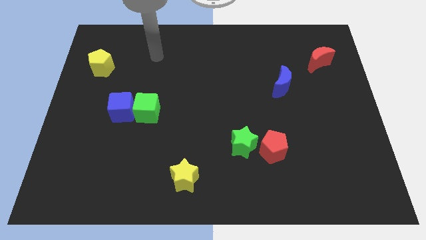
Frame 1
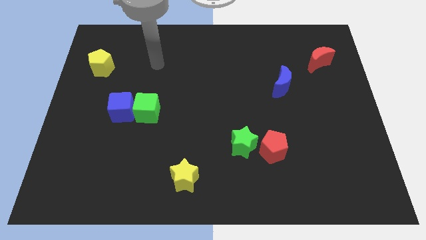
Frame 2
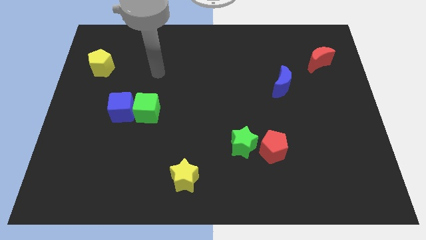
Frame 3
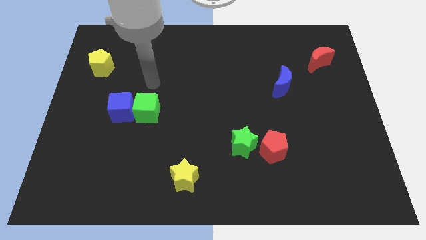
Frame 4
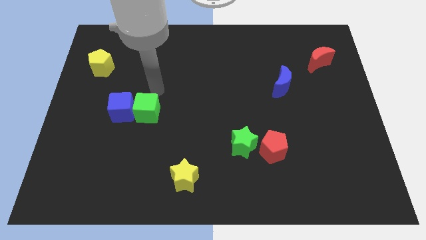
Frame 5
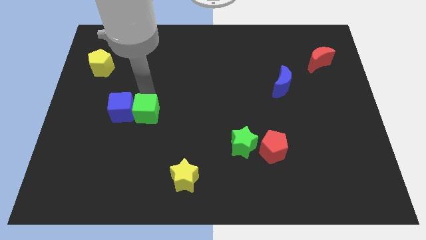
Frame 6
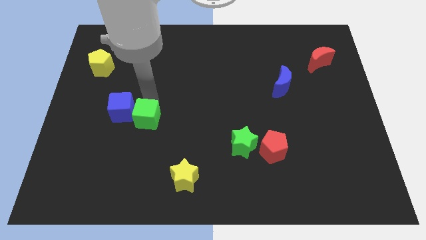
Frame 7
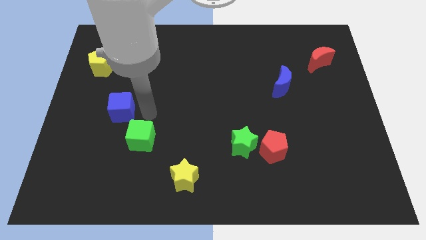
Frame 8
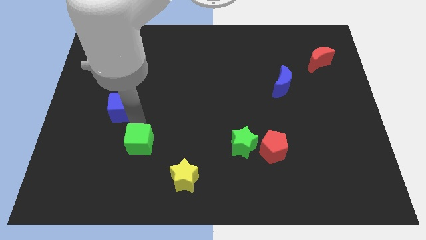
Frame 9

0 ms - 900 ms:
move the blue cube away from the green cube

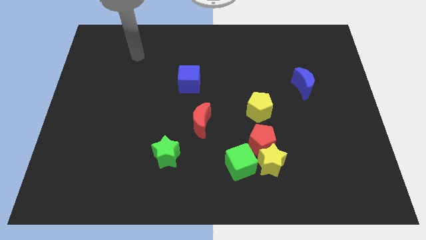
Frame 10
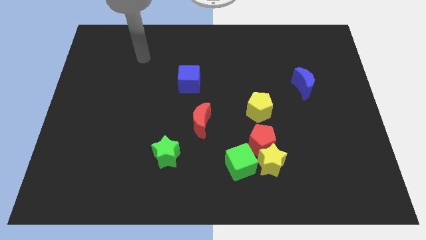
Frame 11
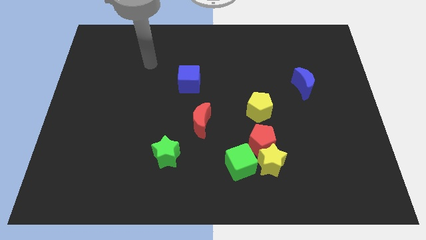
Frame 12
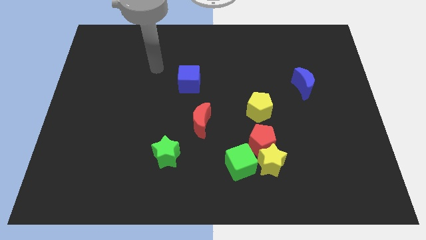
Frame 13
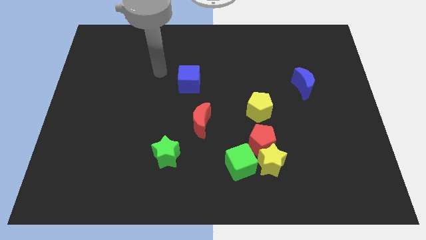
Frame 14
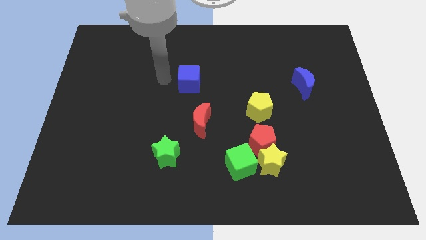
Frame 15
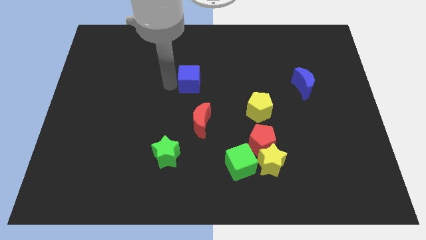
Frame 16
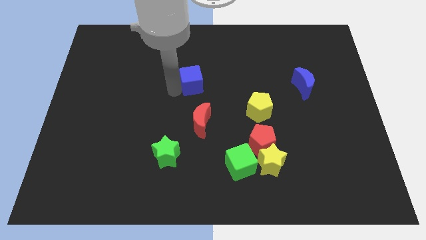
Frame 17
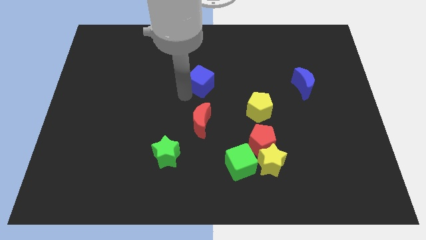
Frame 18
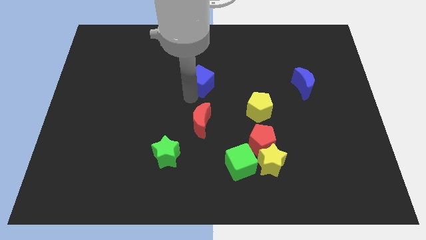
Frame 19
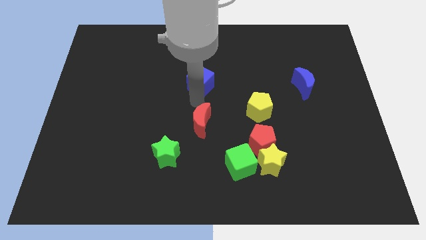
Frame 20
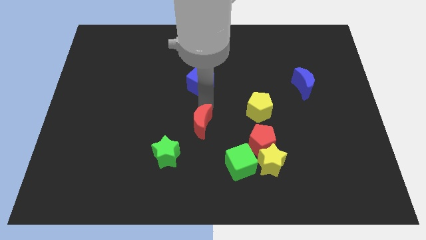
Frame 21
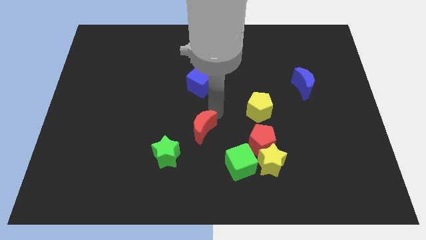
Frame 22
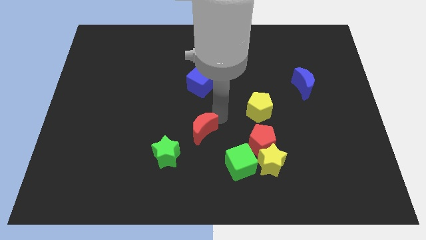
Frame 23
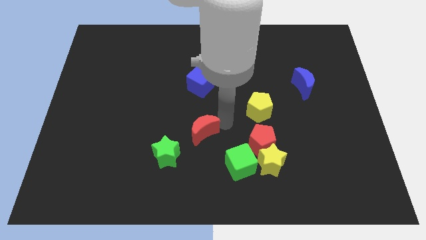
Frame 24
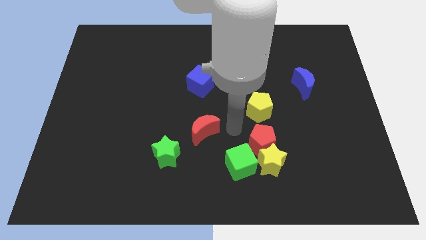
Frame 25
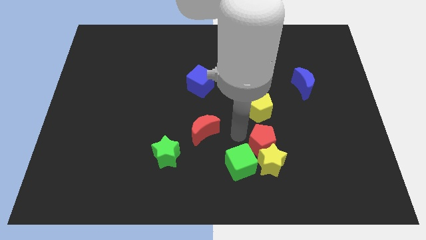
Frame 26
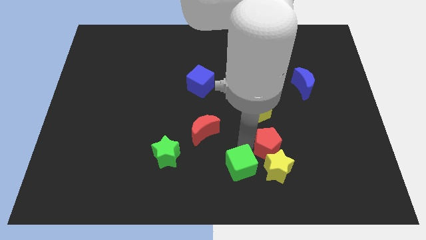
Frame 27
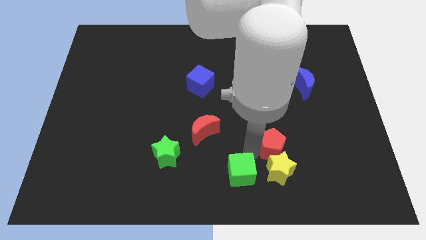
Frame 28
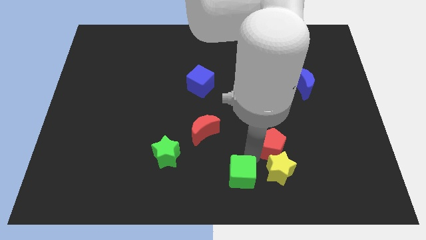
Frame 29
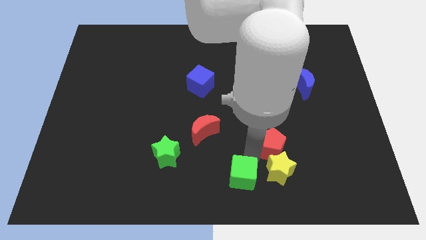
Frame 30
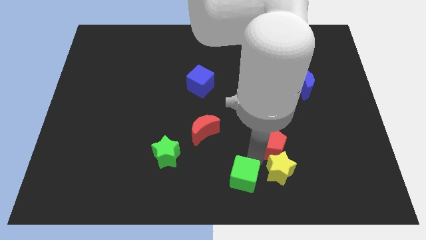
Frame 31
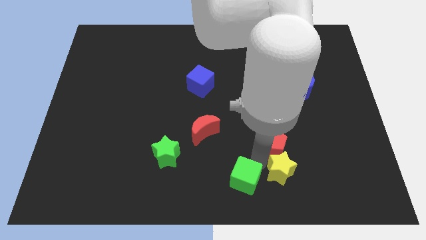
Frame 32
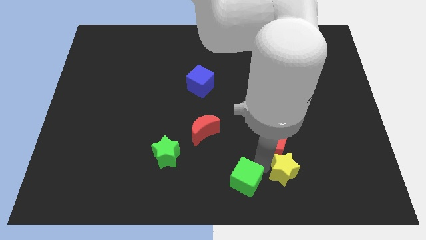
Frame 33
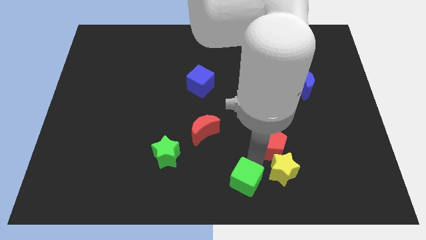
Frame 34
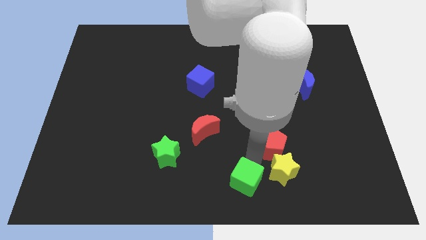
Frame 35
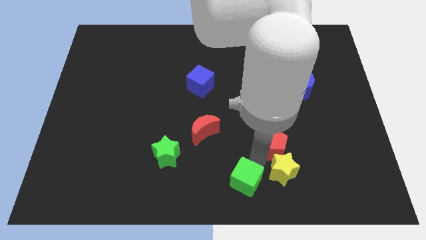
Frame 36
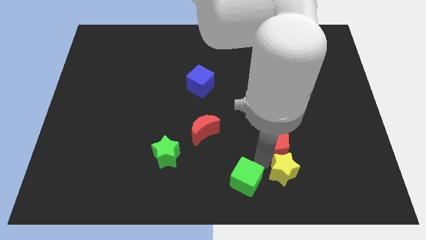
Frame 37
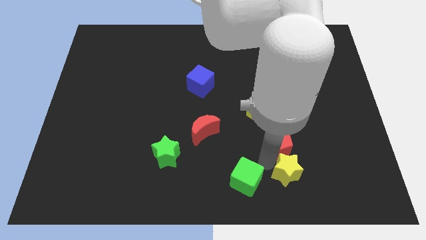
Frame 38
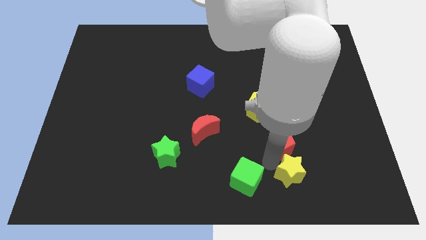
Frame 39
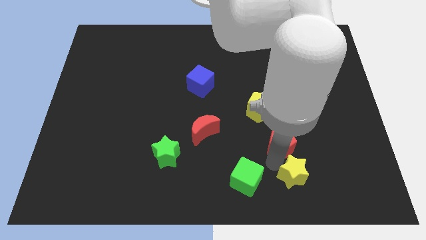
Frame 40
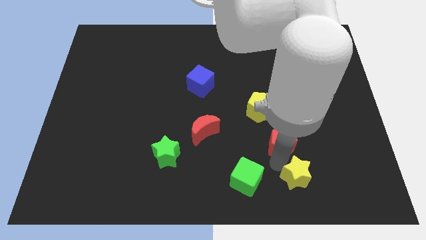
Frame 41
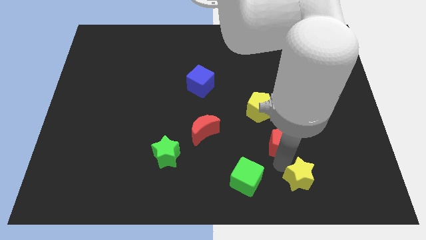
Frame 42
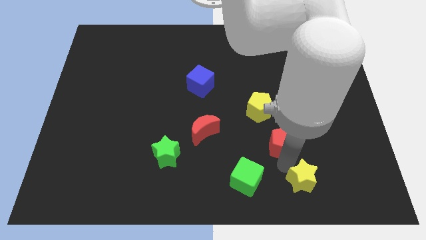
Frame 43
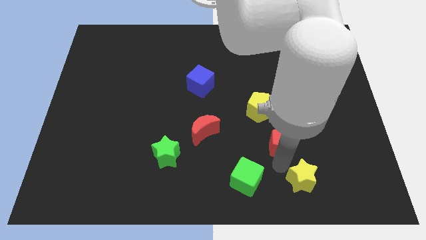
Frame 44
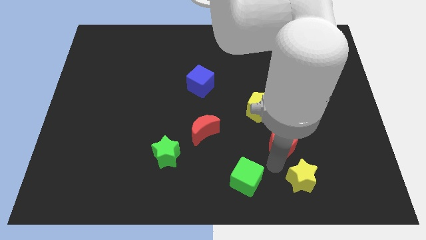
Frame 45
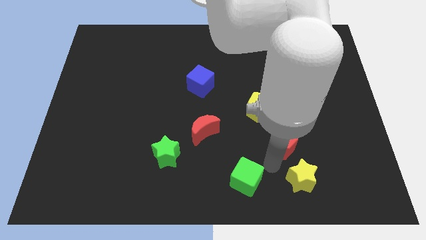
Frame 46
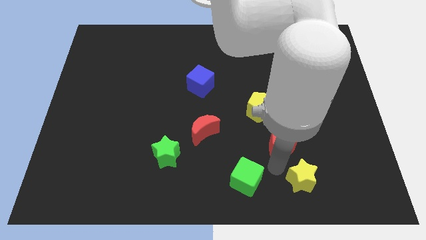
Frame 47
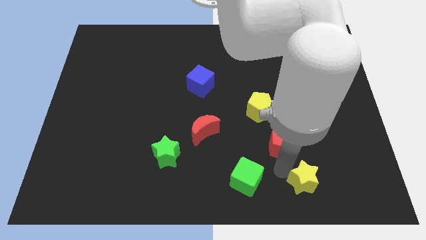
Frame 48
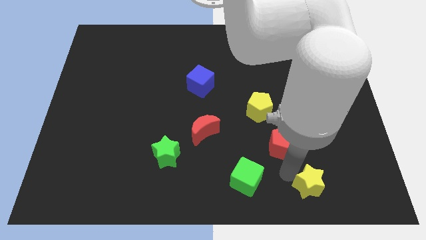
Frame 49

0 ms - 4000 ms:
move the yellow star away from the red pentagon and green cube

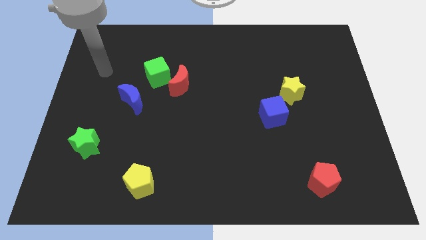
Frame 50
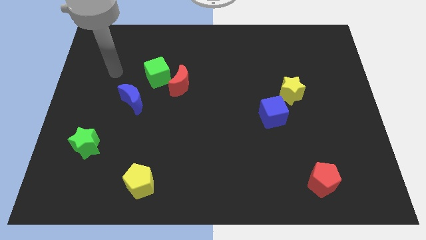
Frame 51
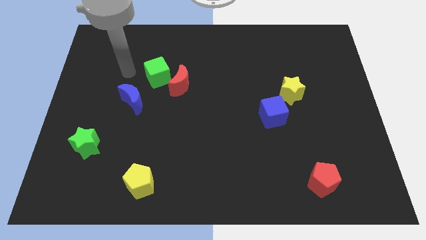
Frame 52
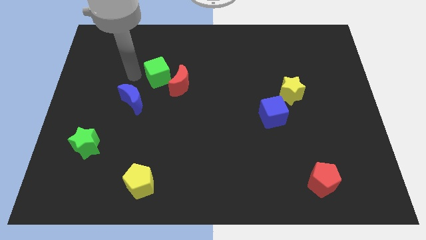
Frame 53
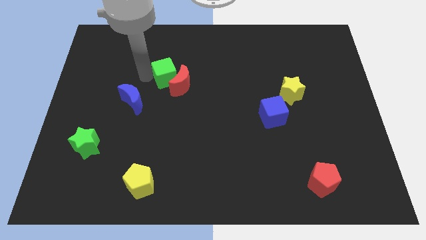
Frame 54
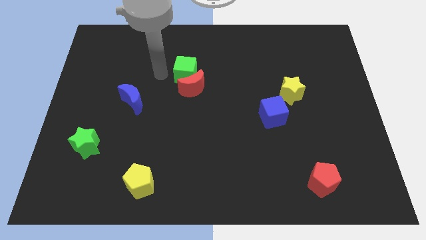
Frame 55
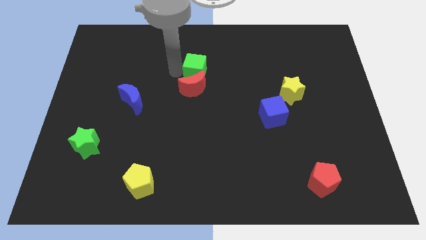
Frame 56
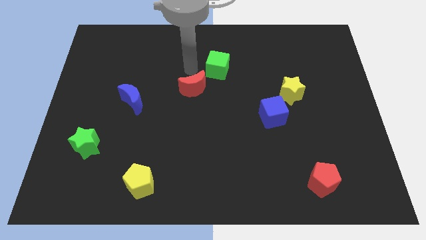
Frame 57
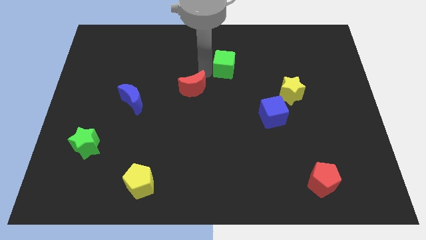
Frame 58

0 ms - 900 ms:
separate the red moon from the green cube

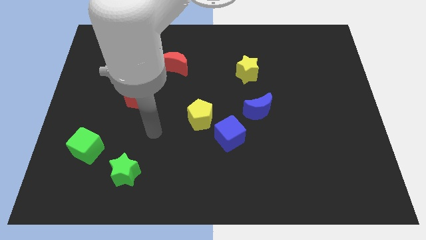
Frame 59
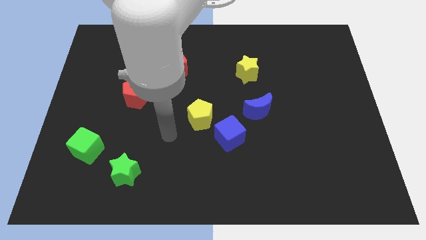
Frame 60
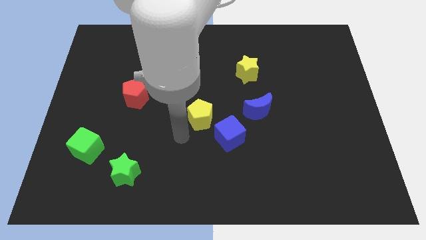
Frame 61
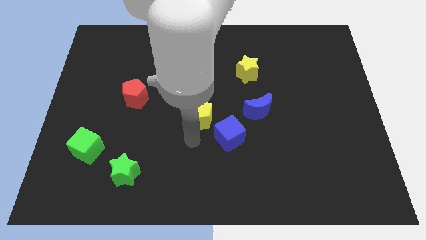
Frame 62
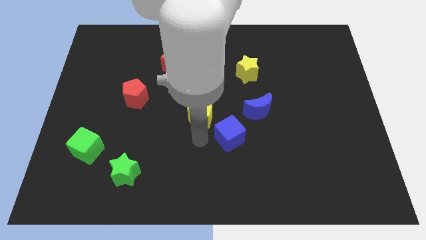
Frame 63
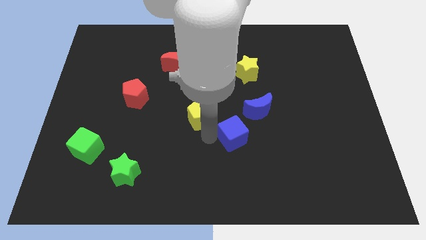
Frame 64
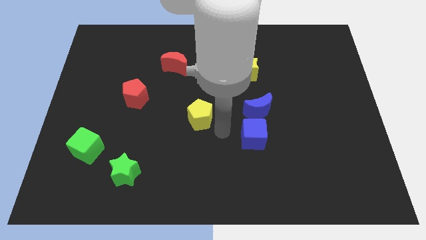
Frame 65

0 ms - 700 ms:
separate the yellow pentagon from the blue cube

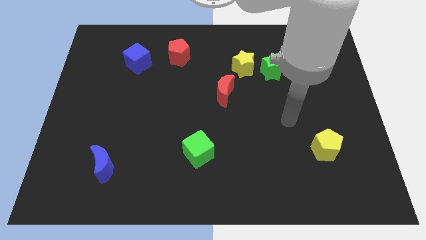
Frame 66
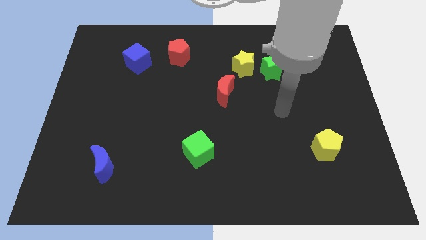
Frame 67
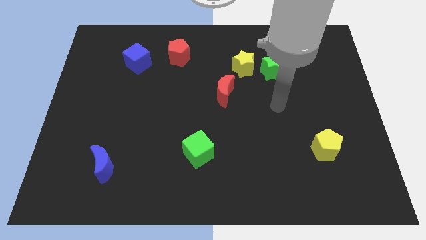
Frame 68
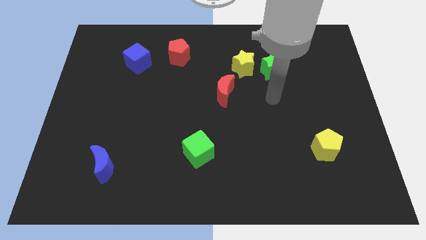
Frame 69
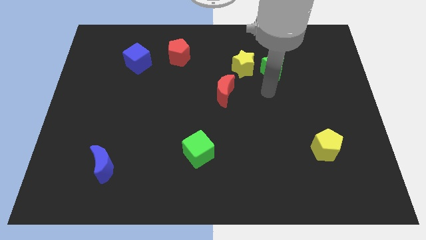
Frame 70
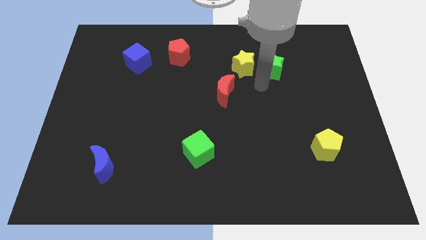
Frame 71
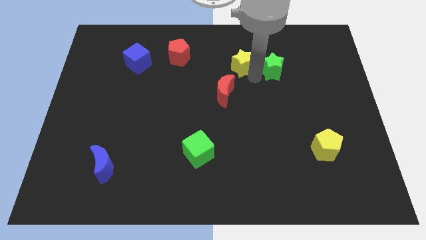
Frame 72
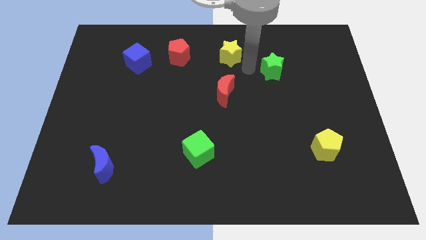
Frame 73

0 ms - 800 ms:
separate the green star from the yellow star

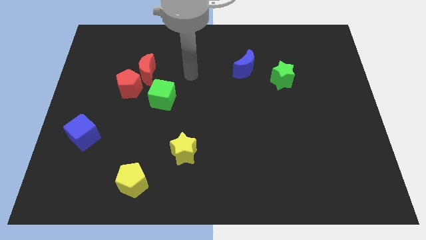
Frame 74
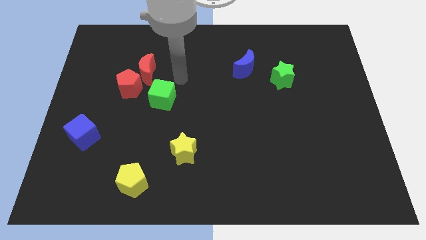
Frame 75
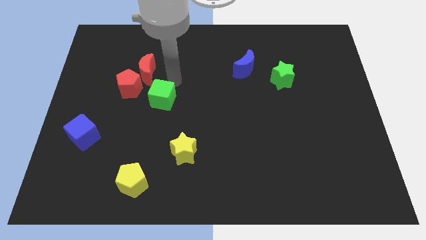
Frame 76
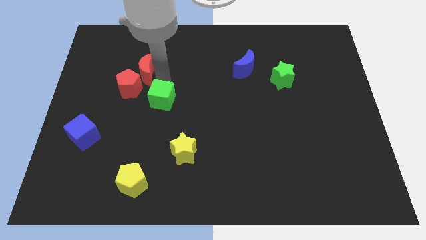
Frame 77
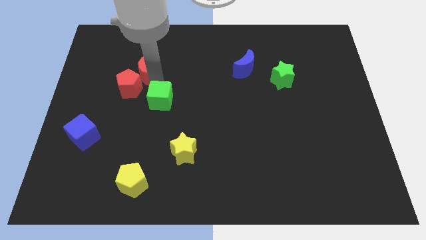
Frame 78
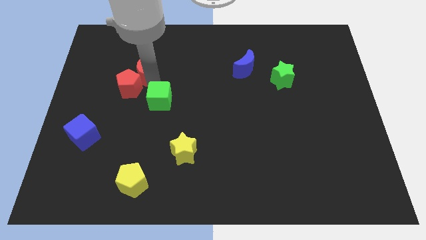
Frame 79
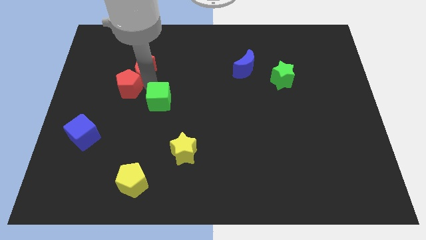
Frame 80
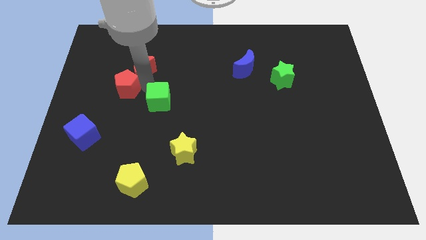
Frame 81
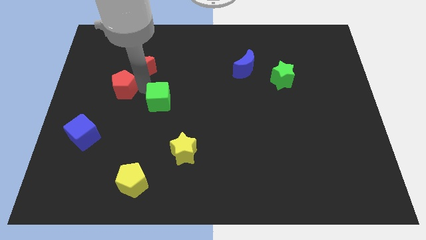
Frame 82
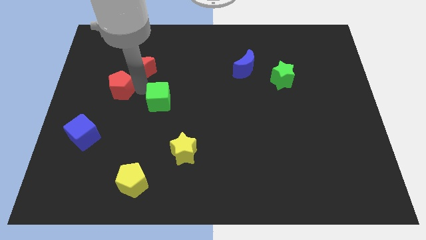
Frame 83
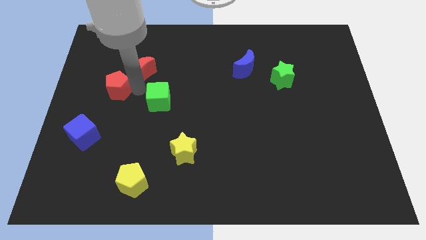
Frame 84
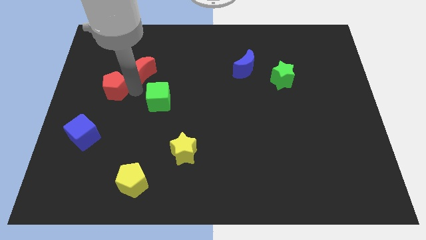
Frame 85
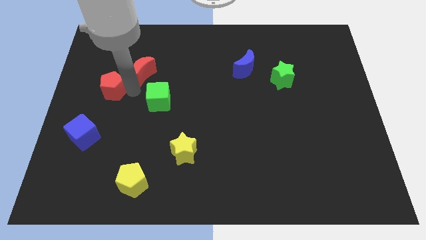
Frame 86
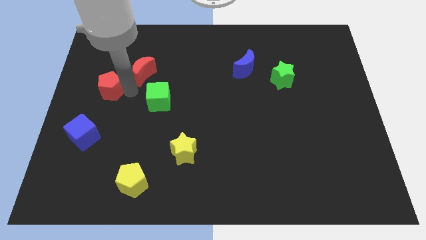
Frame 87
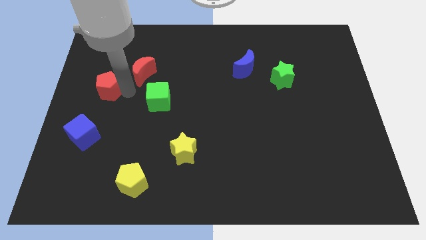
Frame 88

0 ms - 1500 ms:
separate the red pentagon from the red moon and green cube

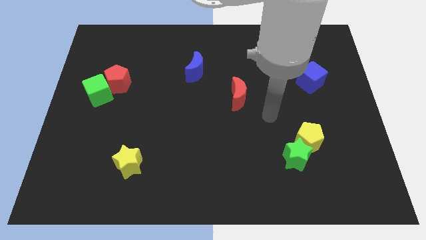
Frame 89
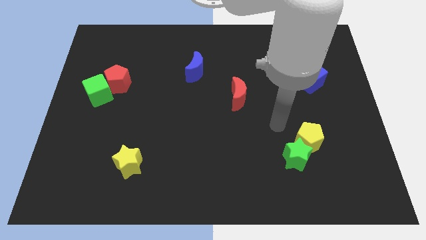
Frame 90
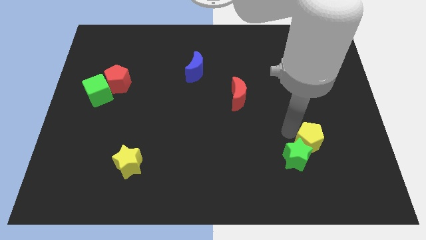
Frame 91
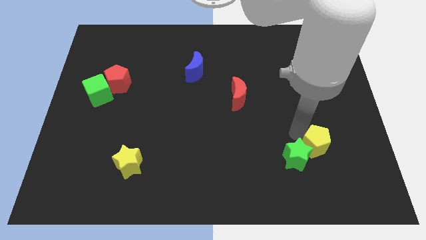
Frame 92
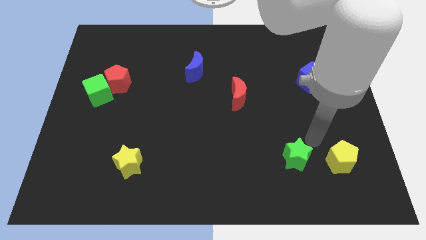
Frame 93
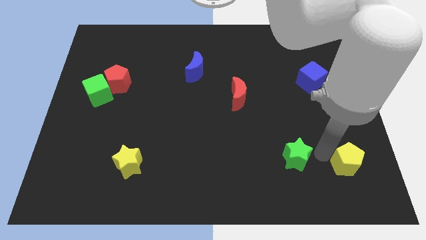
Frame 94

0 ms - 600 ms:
pull the green star apart from the yellow pentagon
